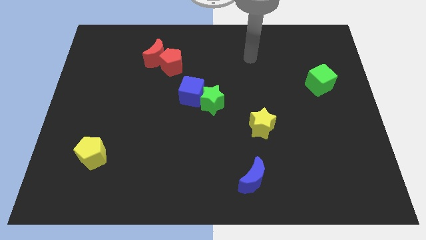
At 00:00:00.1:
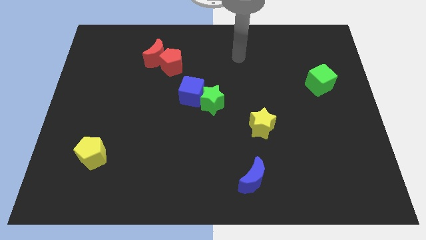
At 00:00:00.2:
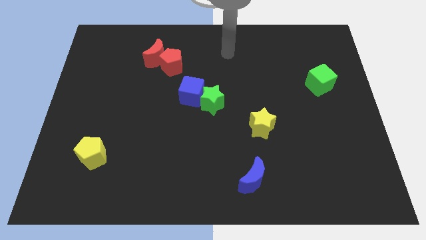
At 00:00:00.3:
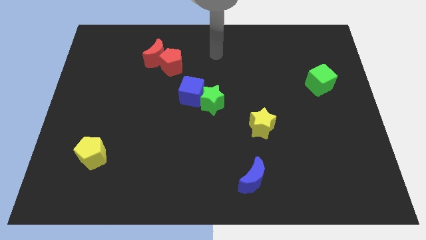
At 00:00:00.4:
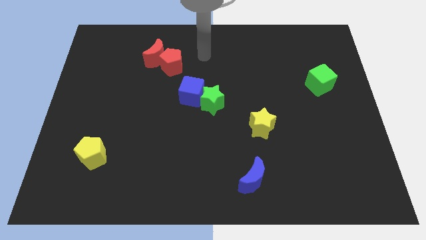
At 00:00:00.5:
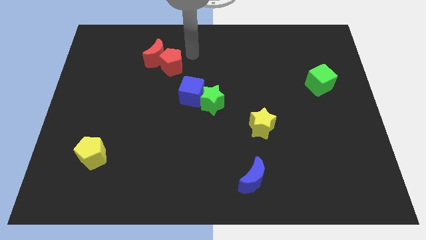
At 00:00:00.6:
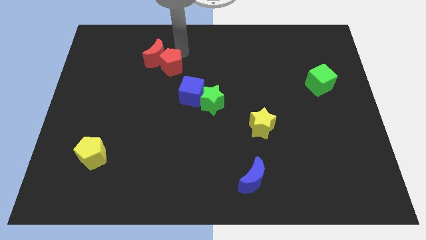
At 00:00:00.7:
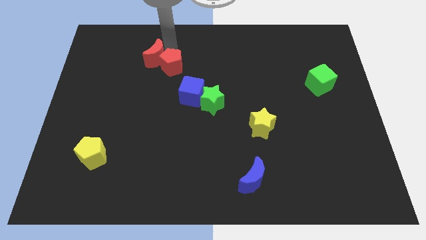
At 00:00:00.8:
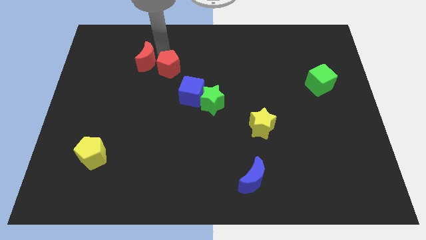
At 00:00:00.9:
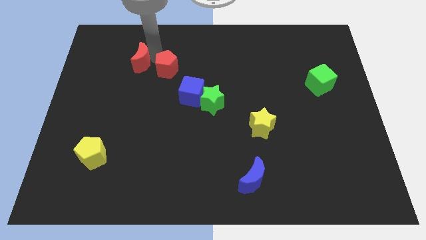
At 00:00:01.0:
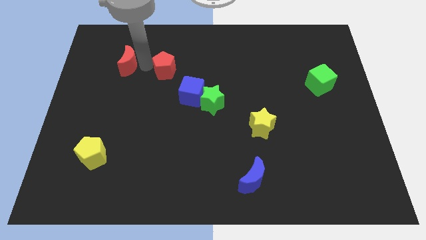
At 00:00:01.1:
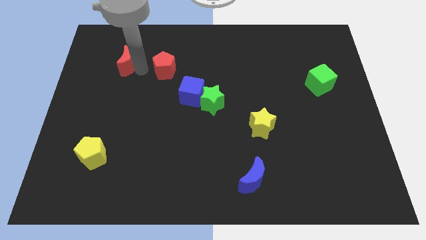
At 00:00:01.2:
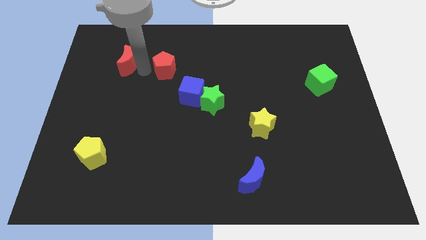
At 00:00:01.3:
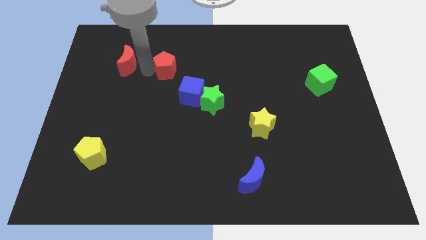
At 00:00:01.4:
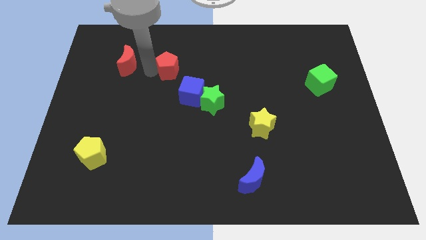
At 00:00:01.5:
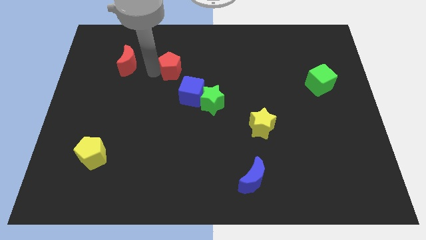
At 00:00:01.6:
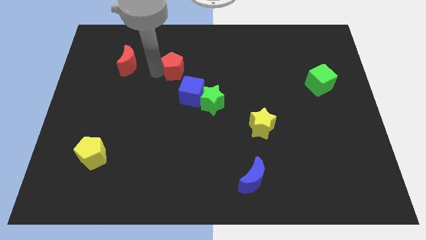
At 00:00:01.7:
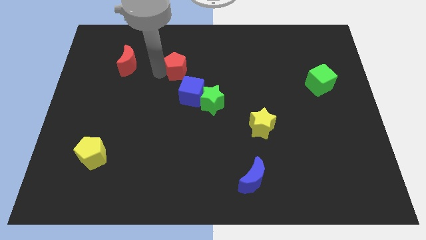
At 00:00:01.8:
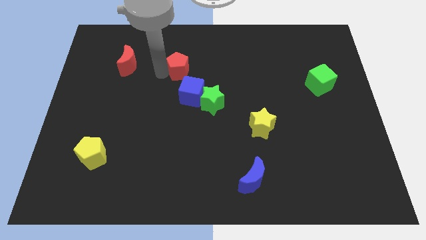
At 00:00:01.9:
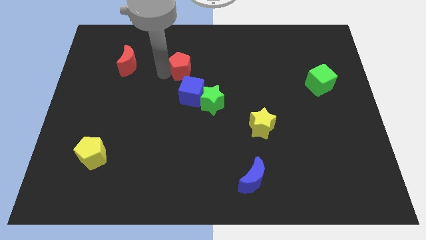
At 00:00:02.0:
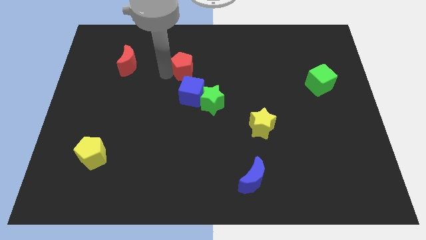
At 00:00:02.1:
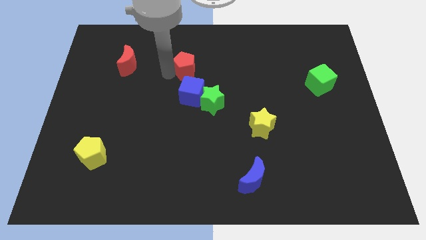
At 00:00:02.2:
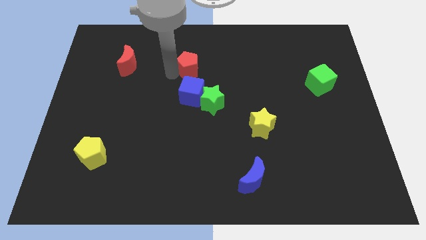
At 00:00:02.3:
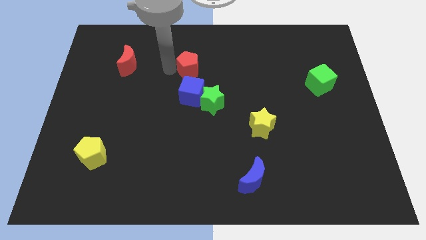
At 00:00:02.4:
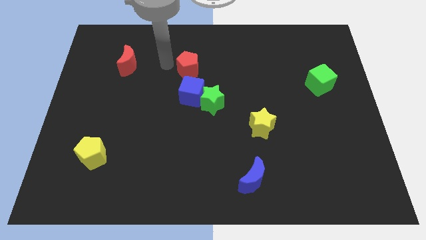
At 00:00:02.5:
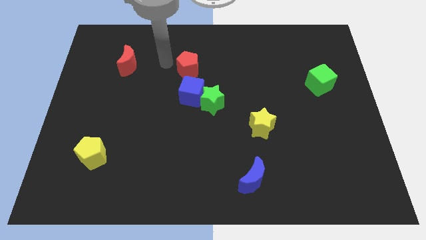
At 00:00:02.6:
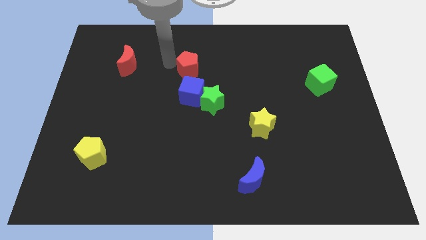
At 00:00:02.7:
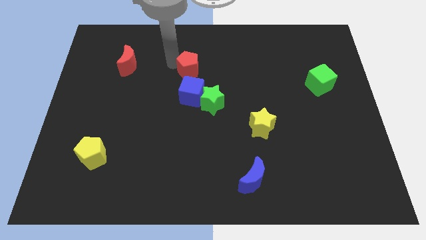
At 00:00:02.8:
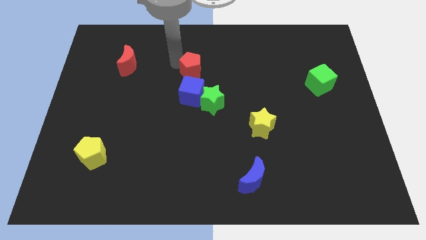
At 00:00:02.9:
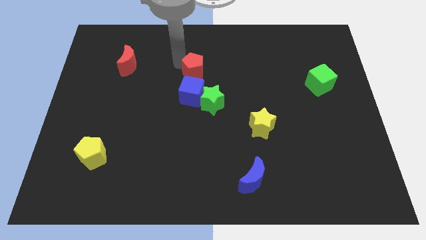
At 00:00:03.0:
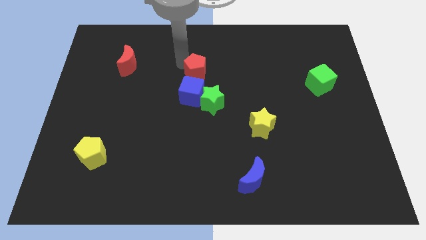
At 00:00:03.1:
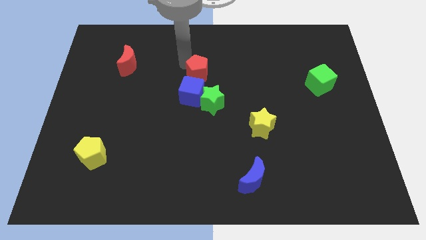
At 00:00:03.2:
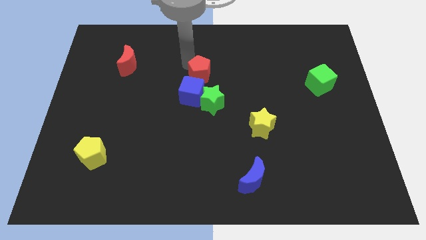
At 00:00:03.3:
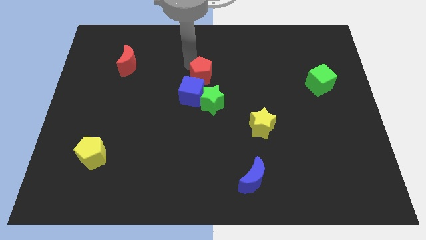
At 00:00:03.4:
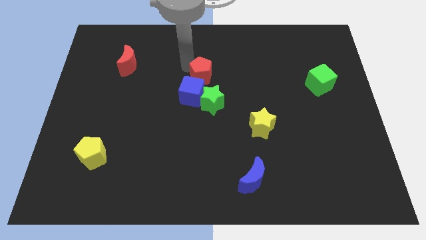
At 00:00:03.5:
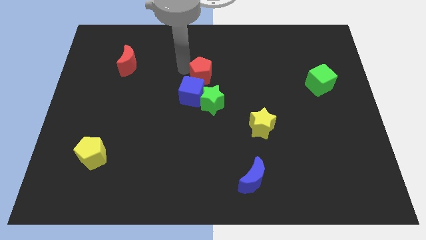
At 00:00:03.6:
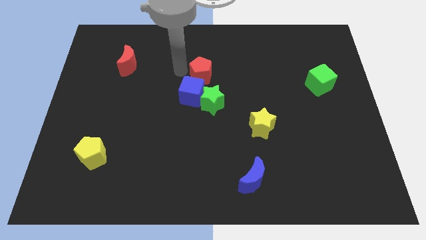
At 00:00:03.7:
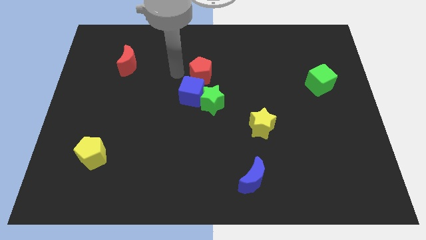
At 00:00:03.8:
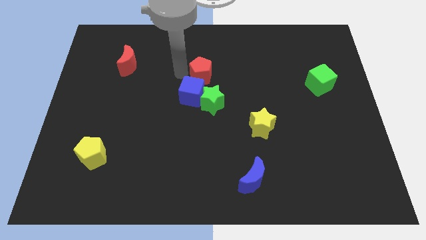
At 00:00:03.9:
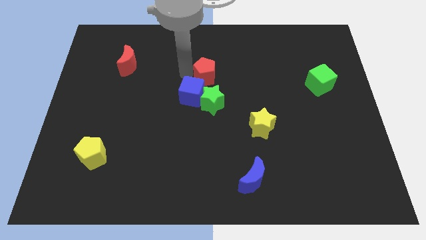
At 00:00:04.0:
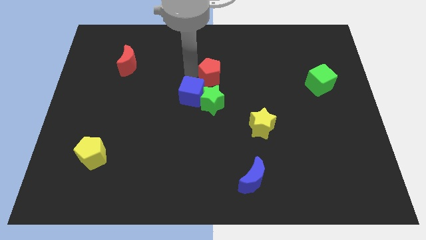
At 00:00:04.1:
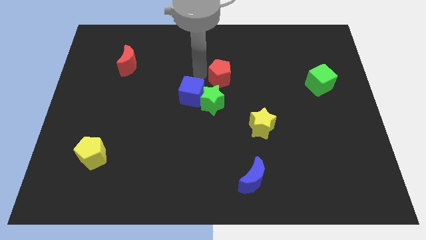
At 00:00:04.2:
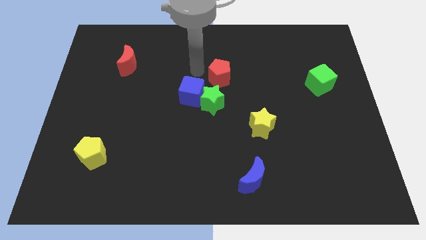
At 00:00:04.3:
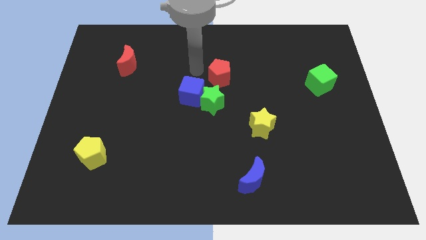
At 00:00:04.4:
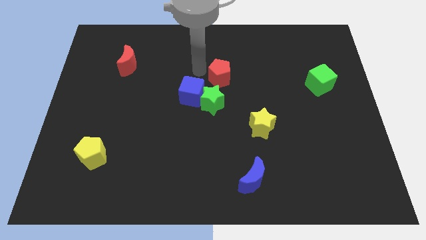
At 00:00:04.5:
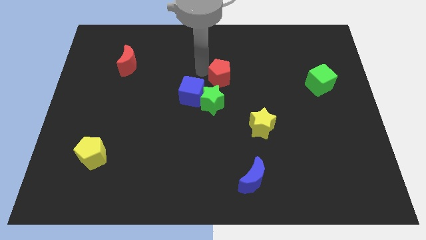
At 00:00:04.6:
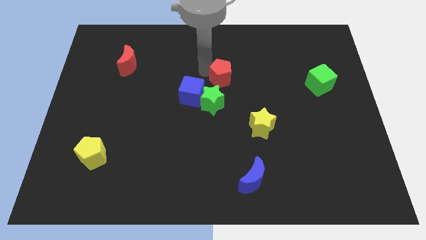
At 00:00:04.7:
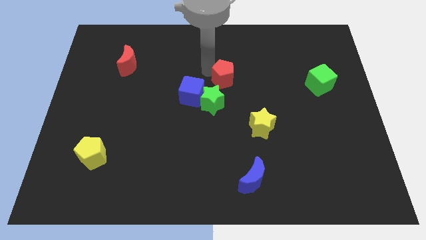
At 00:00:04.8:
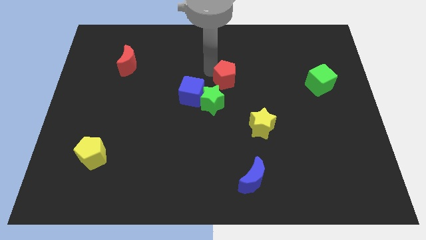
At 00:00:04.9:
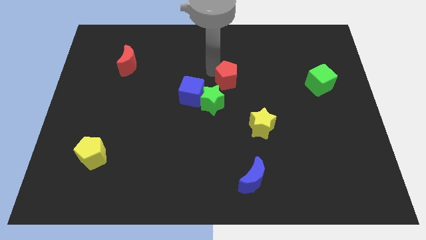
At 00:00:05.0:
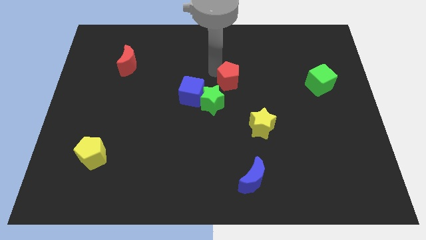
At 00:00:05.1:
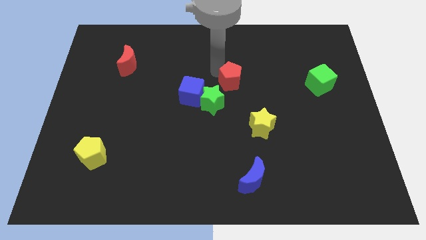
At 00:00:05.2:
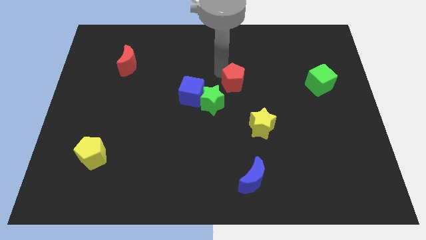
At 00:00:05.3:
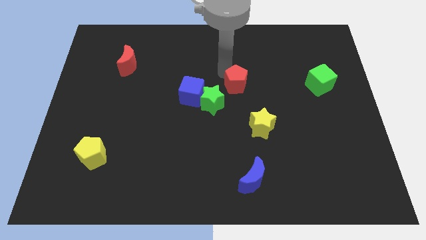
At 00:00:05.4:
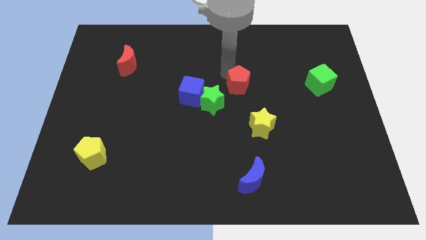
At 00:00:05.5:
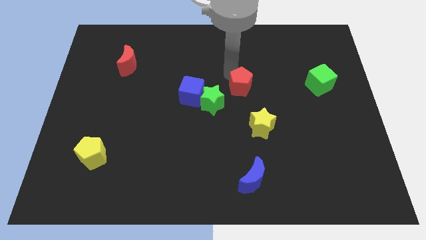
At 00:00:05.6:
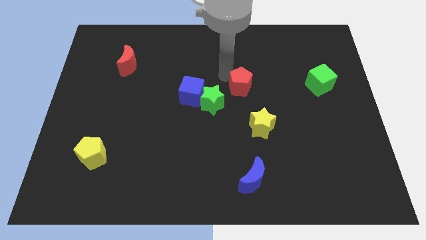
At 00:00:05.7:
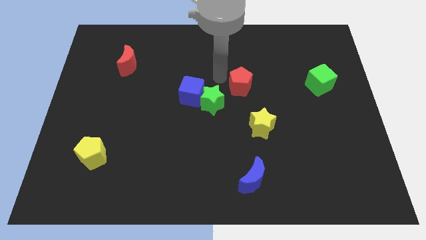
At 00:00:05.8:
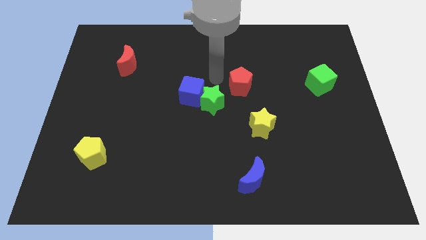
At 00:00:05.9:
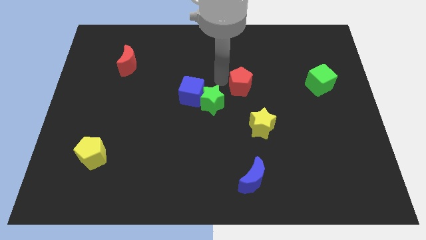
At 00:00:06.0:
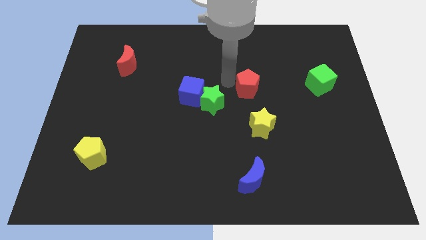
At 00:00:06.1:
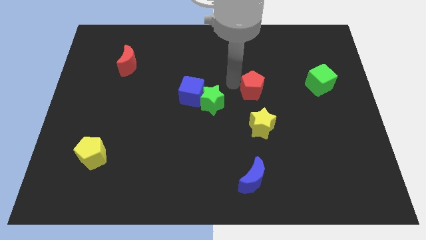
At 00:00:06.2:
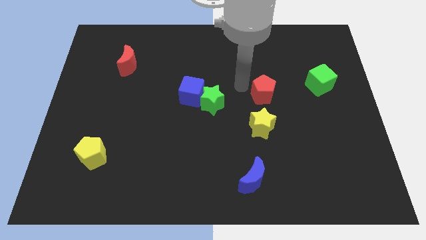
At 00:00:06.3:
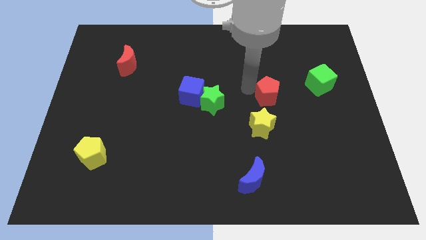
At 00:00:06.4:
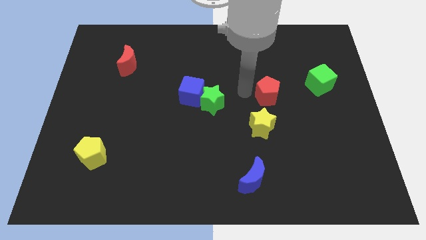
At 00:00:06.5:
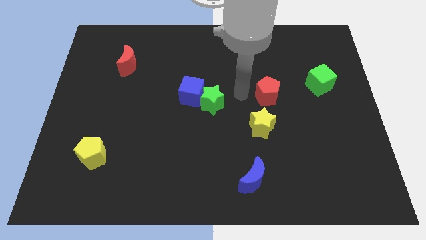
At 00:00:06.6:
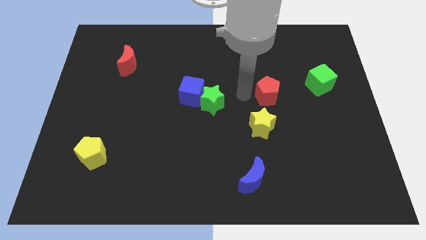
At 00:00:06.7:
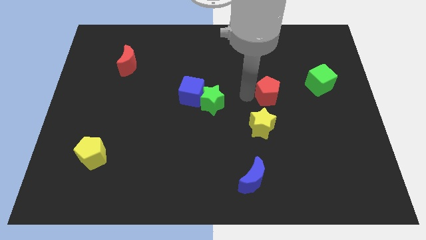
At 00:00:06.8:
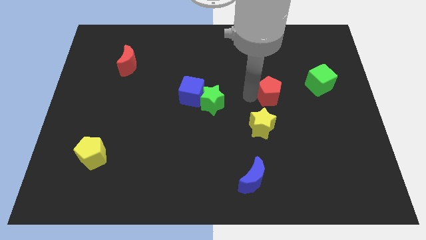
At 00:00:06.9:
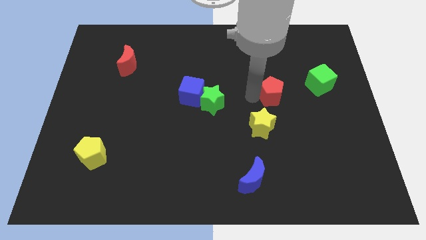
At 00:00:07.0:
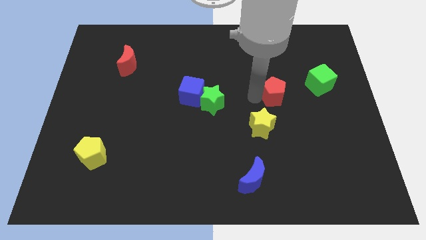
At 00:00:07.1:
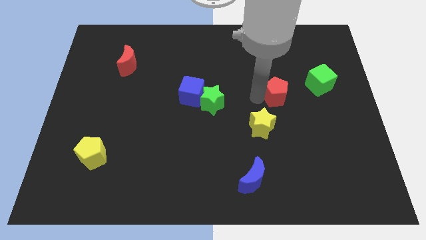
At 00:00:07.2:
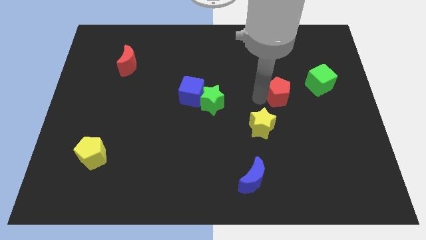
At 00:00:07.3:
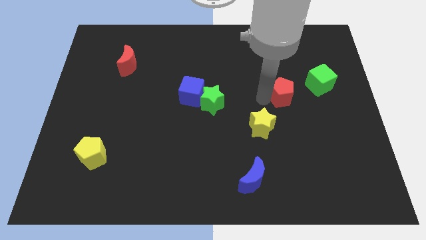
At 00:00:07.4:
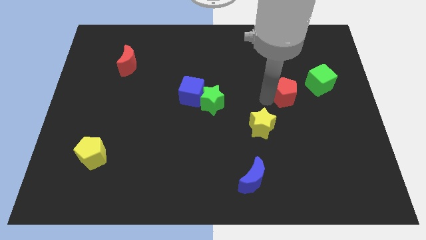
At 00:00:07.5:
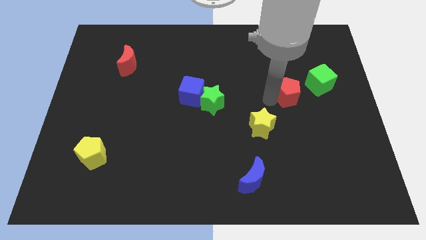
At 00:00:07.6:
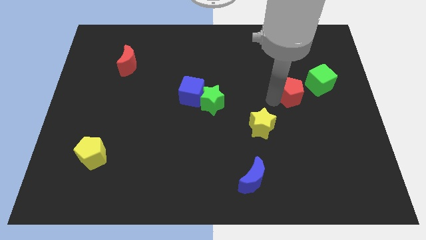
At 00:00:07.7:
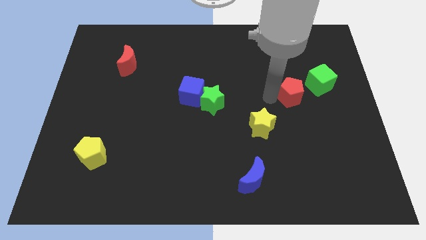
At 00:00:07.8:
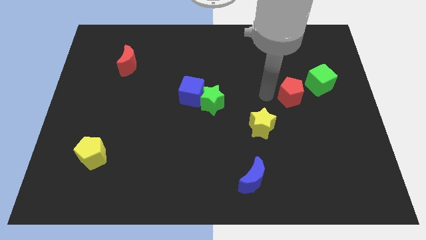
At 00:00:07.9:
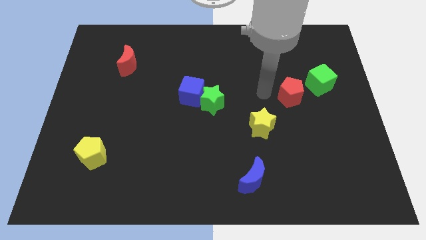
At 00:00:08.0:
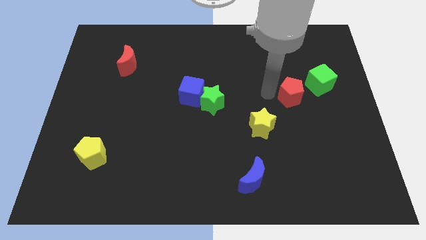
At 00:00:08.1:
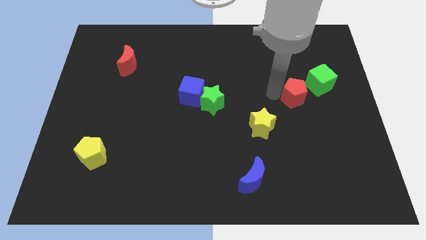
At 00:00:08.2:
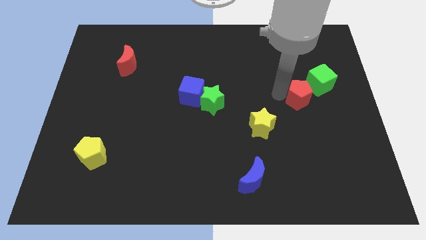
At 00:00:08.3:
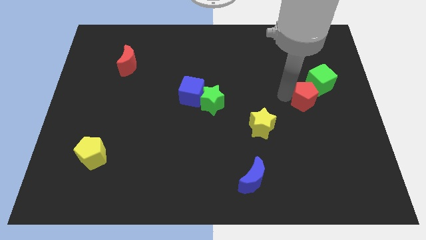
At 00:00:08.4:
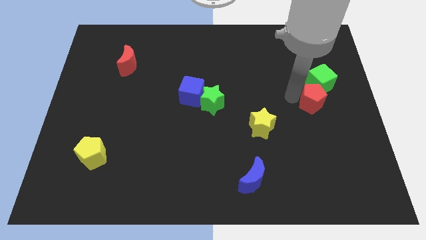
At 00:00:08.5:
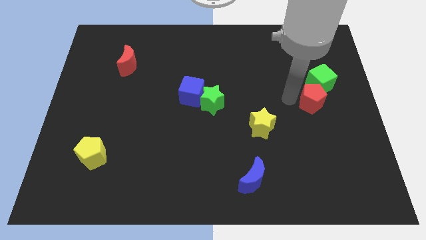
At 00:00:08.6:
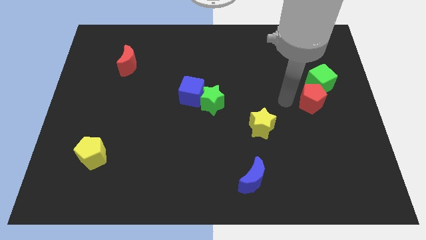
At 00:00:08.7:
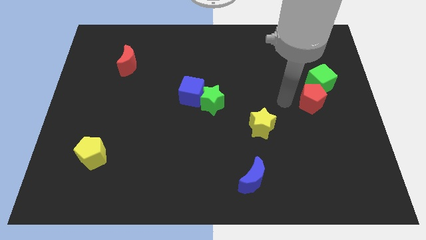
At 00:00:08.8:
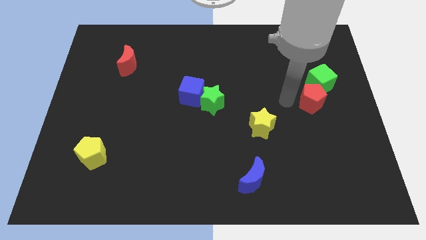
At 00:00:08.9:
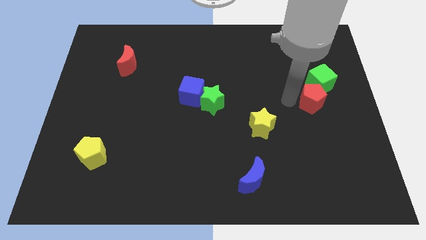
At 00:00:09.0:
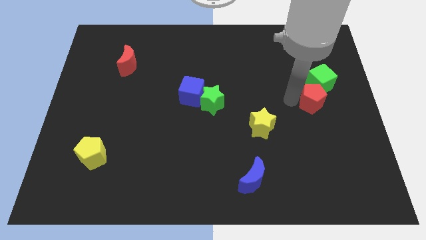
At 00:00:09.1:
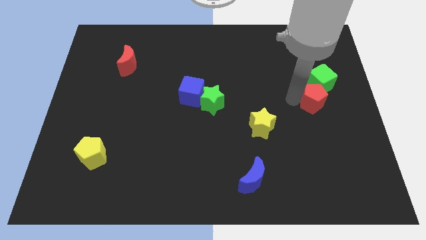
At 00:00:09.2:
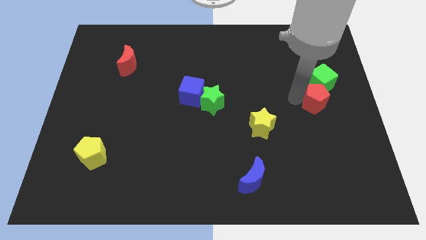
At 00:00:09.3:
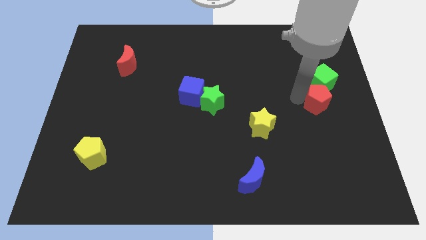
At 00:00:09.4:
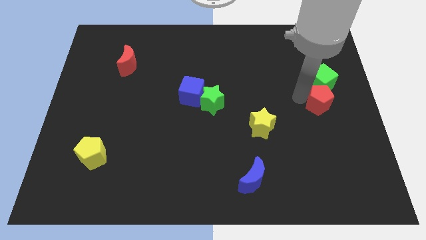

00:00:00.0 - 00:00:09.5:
put the red pentagon to the right side
